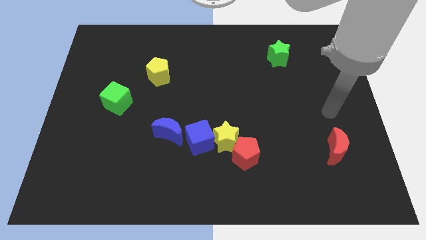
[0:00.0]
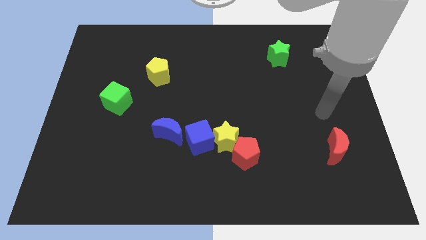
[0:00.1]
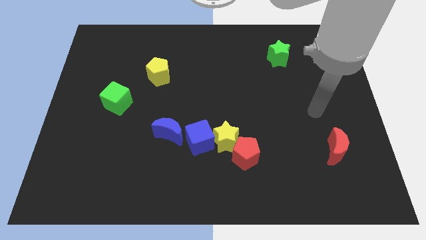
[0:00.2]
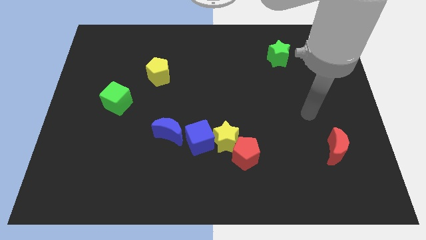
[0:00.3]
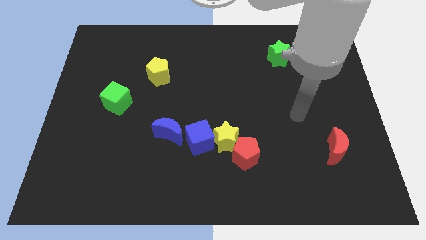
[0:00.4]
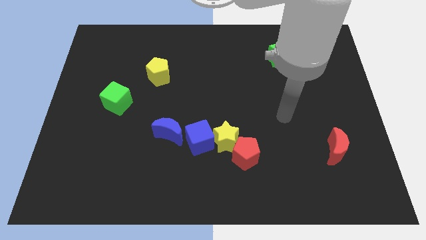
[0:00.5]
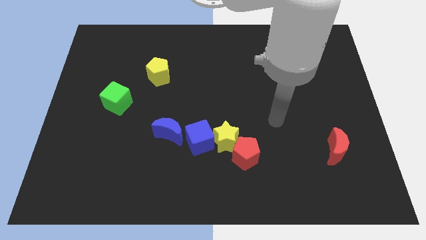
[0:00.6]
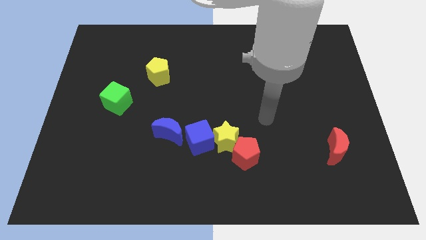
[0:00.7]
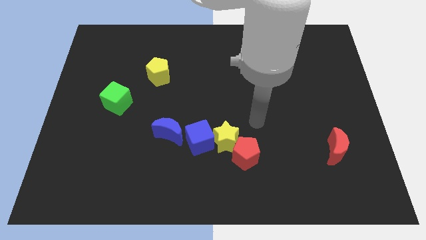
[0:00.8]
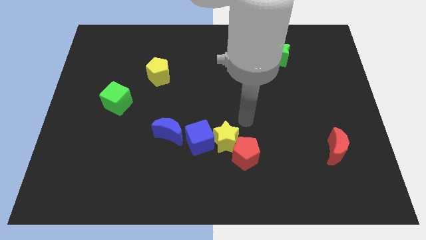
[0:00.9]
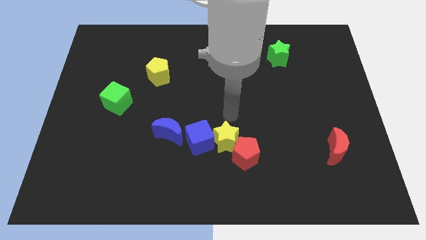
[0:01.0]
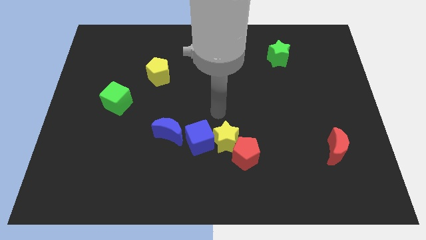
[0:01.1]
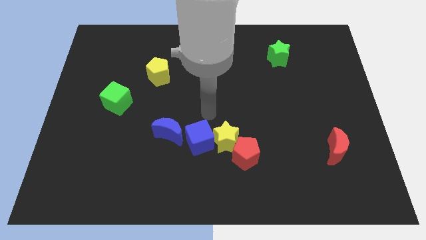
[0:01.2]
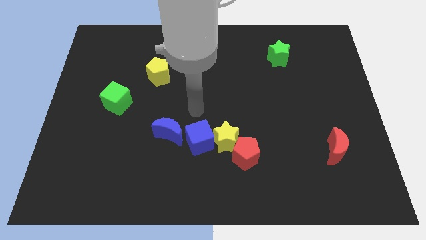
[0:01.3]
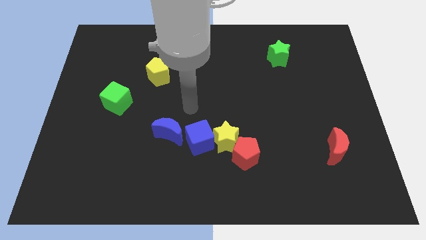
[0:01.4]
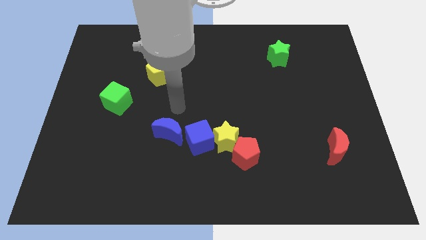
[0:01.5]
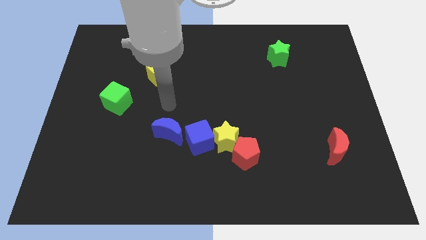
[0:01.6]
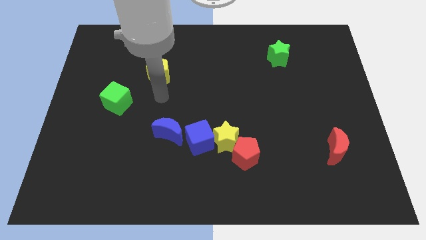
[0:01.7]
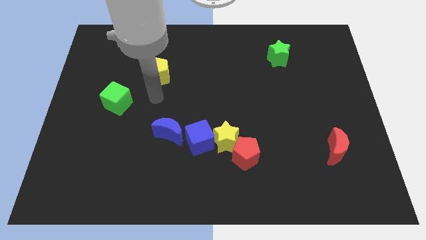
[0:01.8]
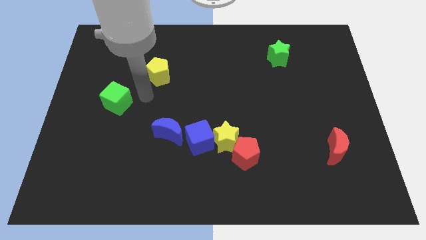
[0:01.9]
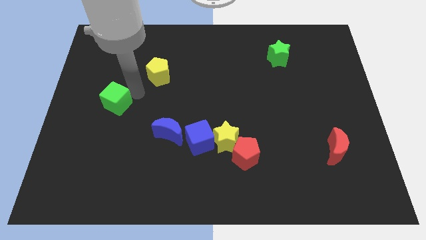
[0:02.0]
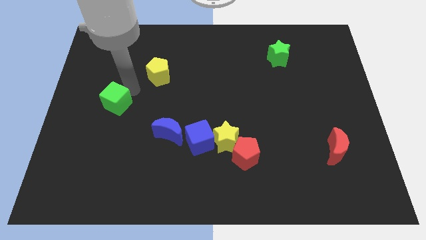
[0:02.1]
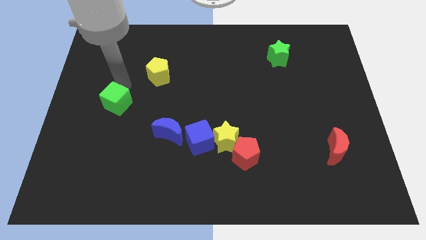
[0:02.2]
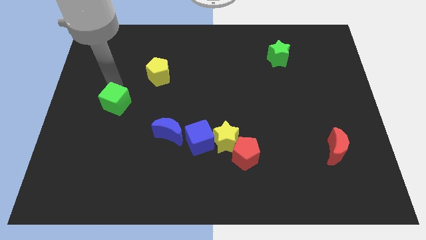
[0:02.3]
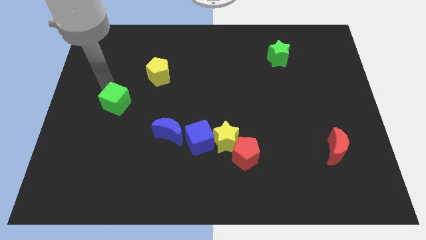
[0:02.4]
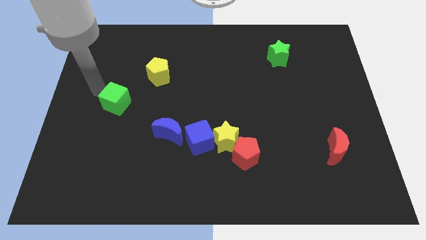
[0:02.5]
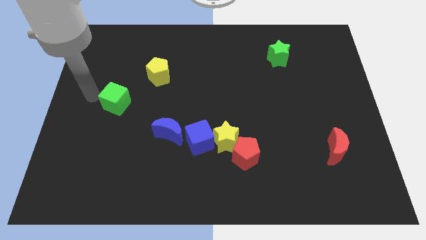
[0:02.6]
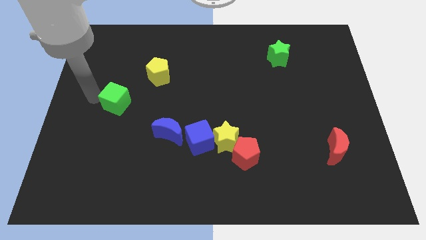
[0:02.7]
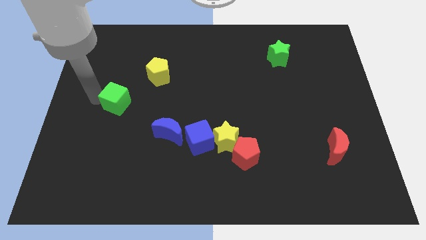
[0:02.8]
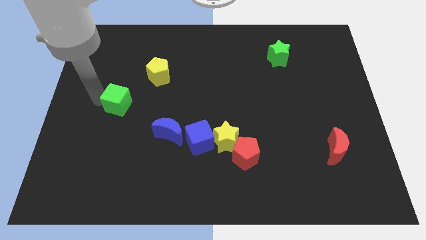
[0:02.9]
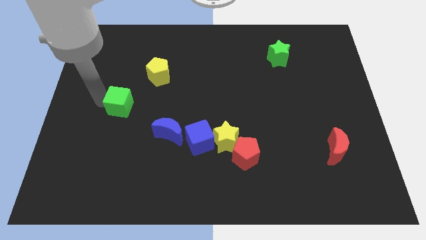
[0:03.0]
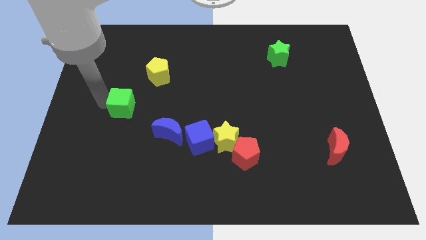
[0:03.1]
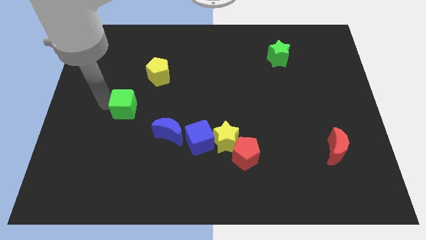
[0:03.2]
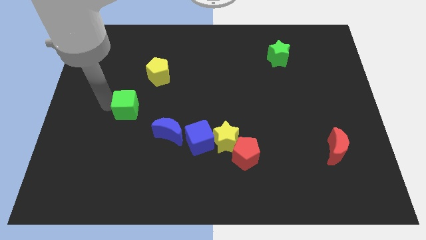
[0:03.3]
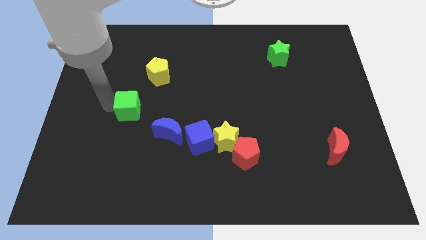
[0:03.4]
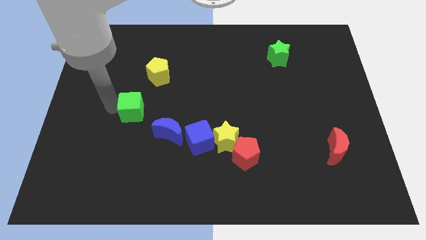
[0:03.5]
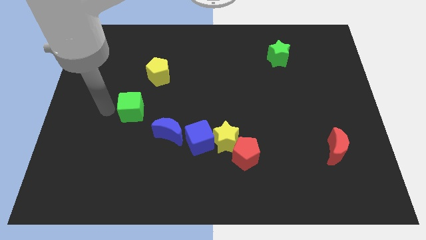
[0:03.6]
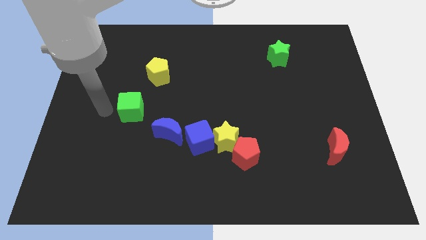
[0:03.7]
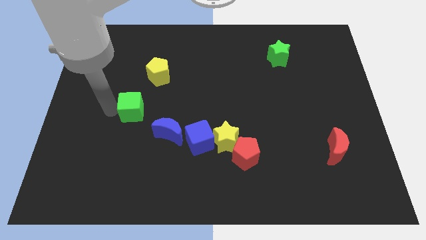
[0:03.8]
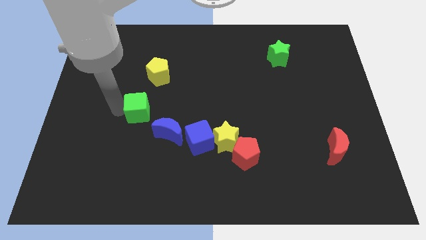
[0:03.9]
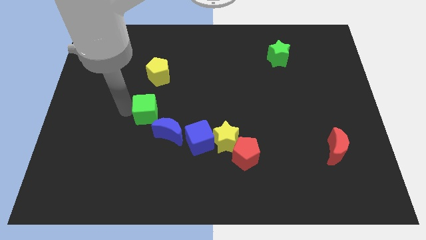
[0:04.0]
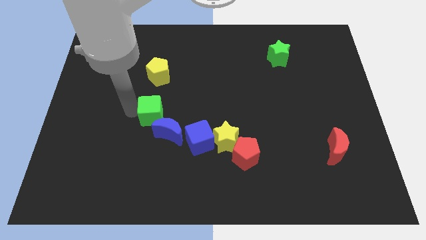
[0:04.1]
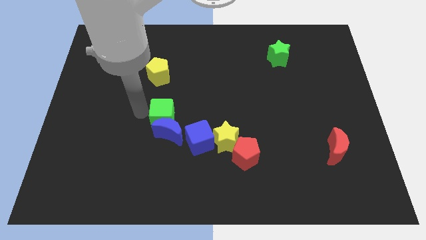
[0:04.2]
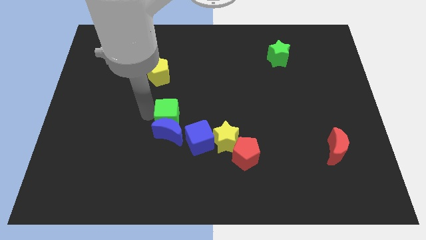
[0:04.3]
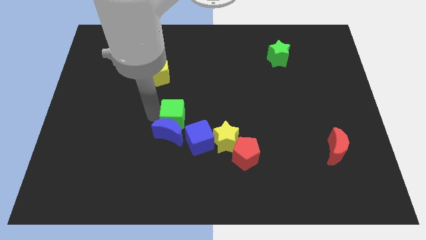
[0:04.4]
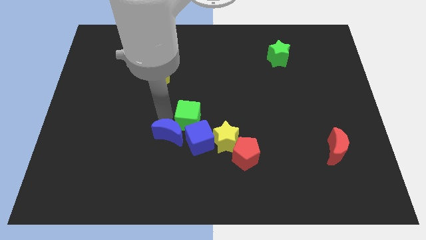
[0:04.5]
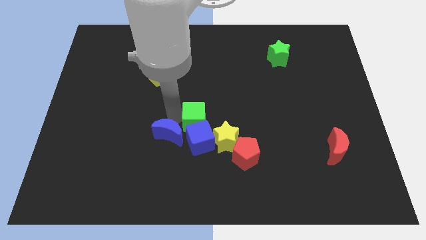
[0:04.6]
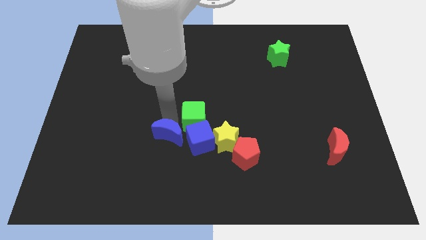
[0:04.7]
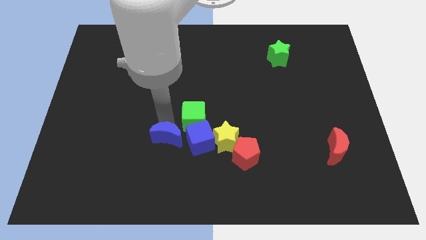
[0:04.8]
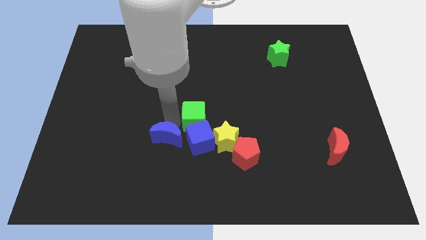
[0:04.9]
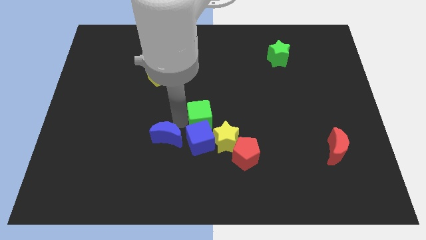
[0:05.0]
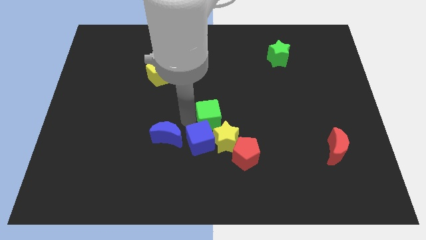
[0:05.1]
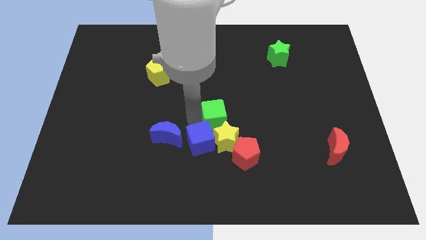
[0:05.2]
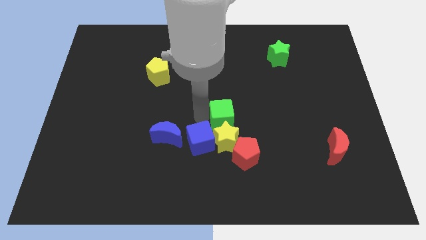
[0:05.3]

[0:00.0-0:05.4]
push the green cube to the yellow star

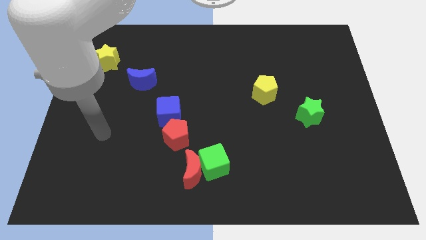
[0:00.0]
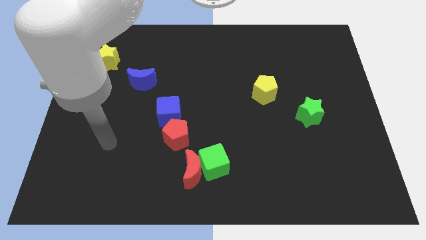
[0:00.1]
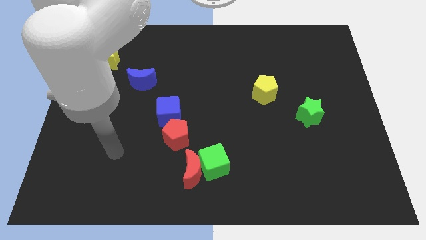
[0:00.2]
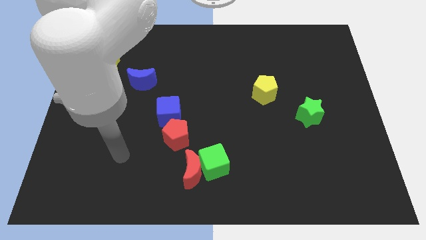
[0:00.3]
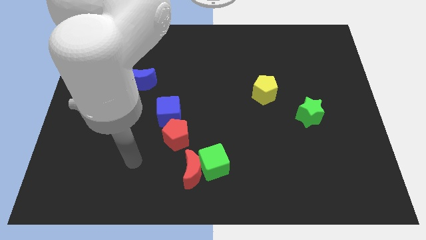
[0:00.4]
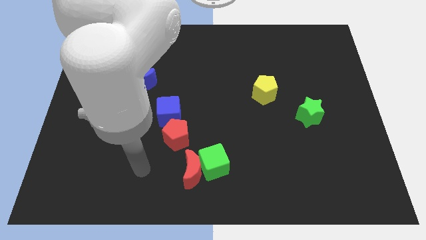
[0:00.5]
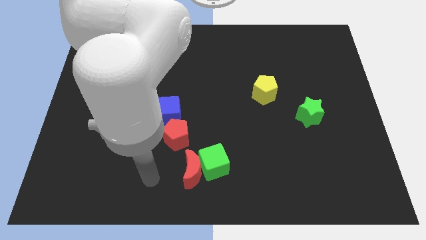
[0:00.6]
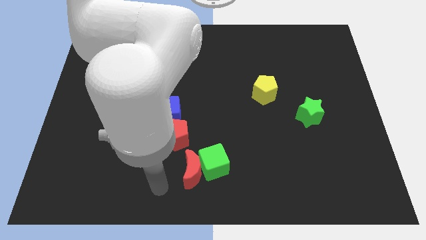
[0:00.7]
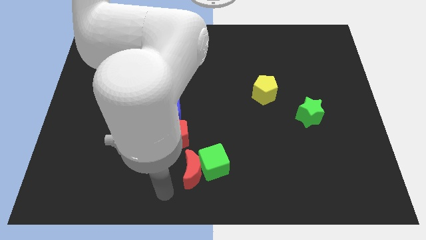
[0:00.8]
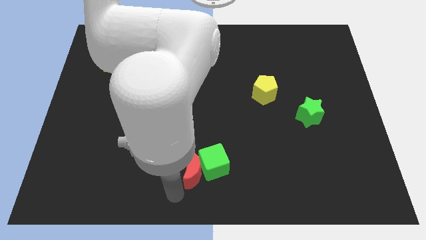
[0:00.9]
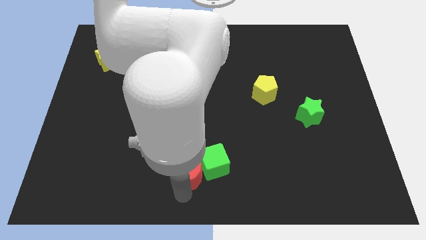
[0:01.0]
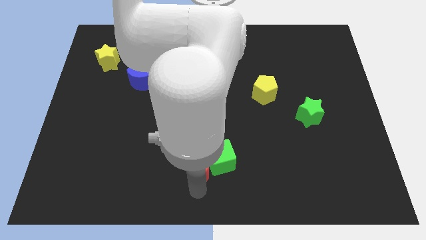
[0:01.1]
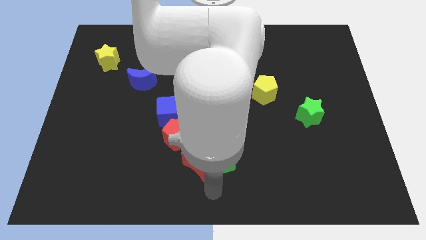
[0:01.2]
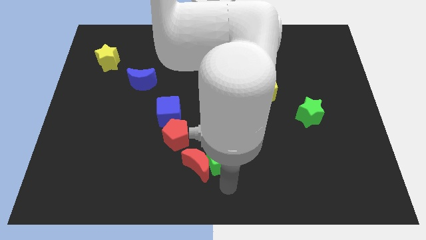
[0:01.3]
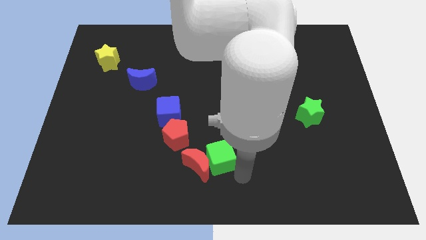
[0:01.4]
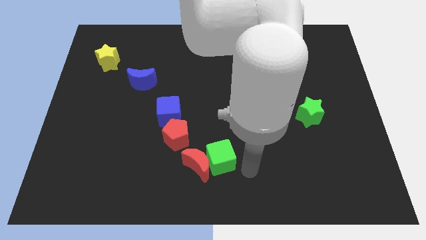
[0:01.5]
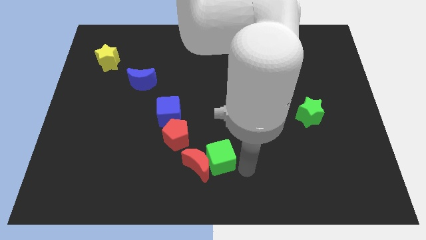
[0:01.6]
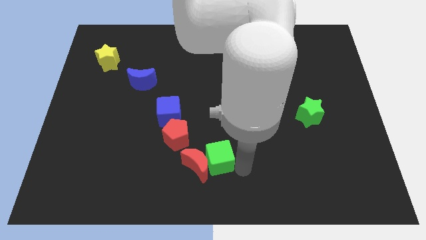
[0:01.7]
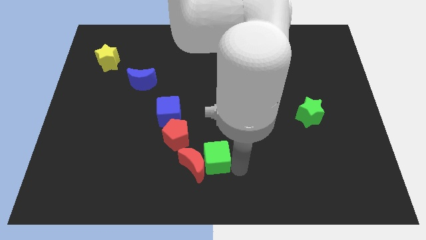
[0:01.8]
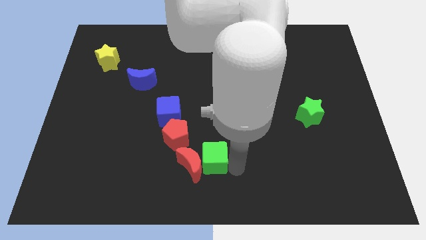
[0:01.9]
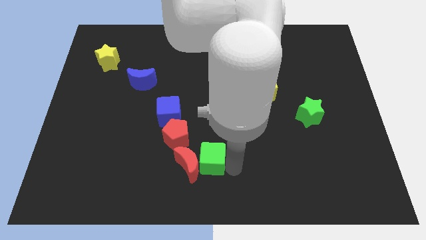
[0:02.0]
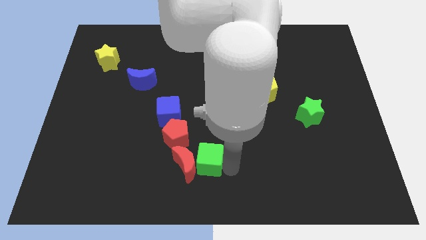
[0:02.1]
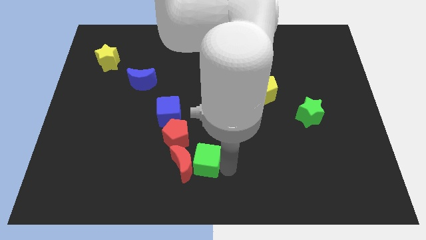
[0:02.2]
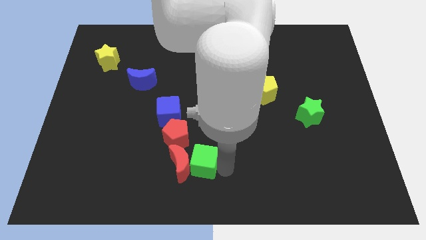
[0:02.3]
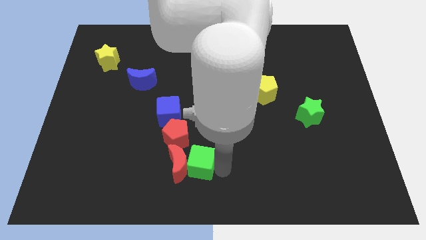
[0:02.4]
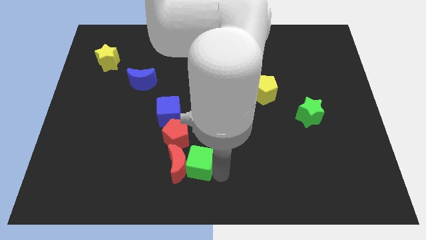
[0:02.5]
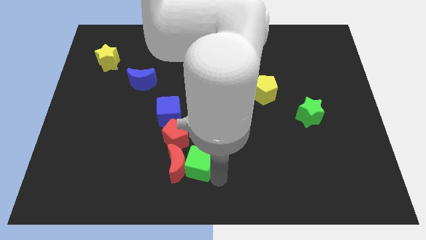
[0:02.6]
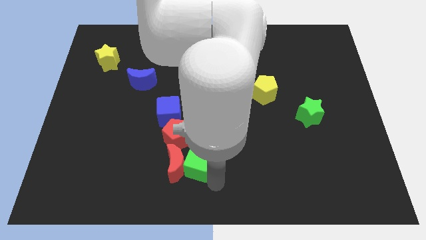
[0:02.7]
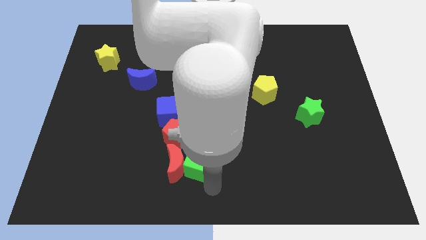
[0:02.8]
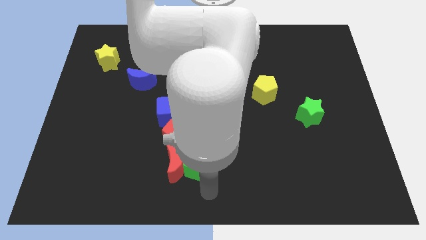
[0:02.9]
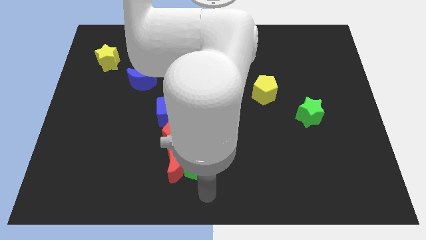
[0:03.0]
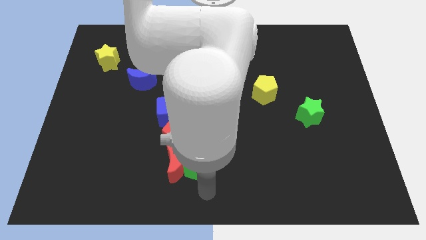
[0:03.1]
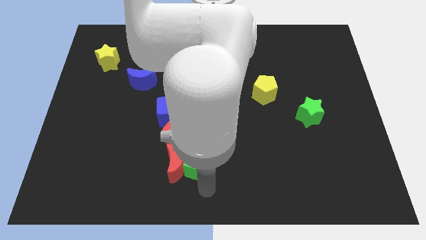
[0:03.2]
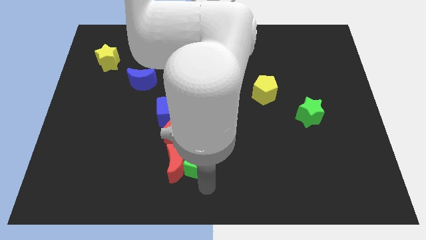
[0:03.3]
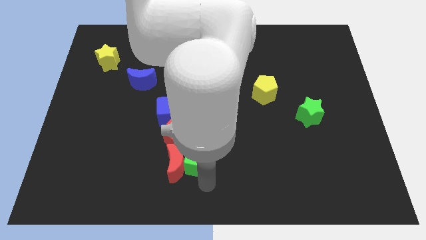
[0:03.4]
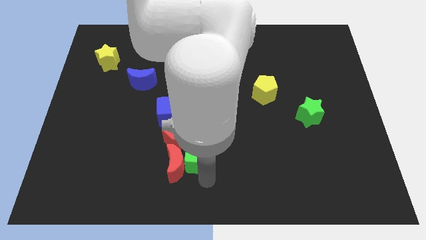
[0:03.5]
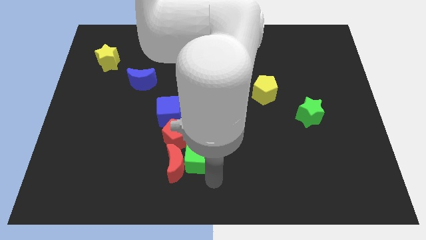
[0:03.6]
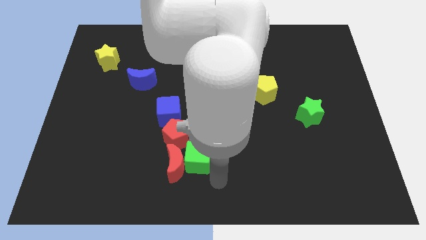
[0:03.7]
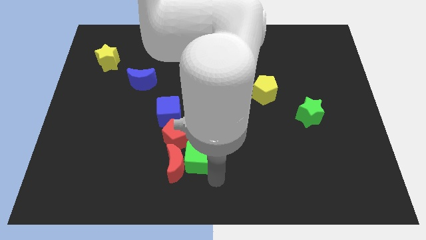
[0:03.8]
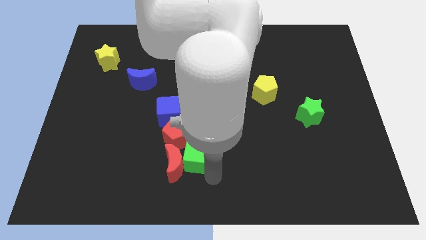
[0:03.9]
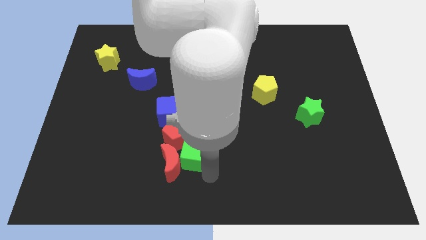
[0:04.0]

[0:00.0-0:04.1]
move the green cube to the red pentagon
